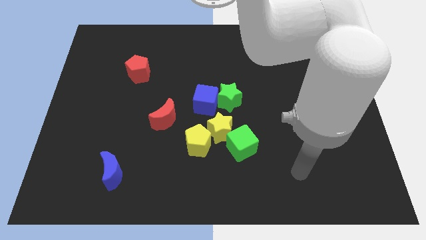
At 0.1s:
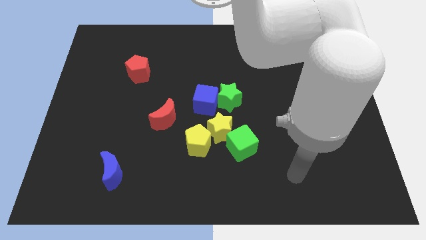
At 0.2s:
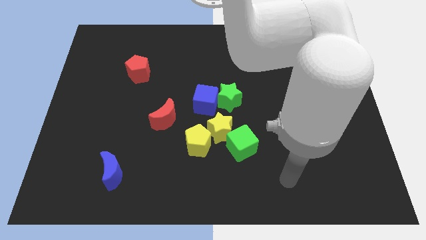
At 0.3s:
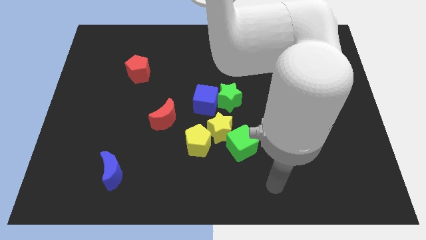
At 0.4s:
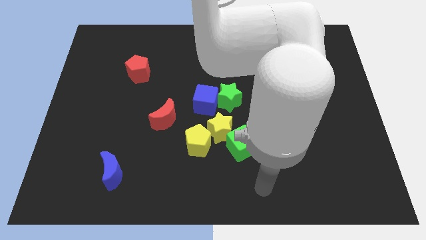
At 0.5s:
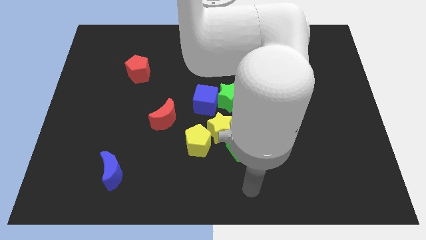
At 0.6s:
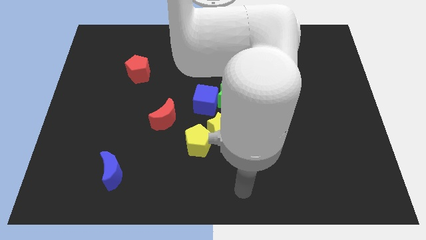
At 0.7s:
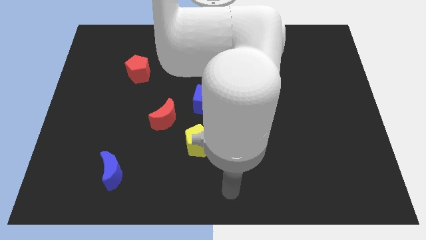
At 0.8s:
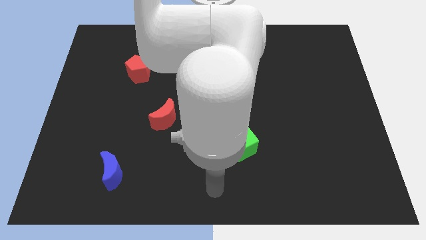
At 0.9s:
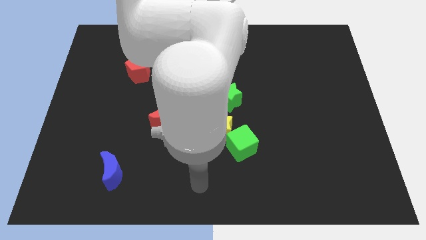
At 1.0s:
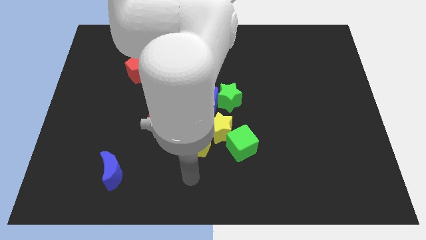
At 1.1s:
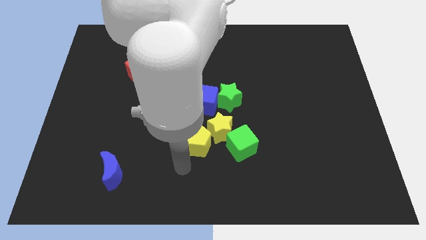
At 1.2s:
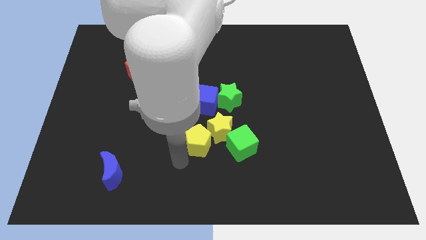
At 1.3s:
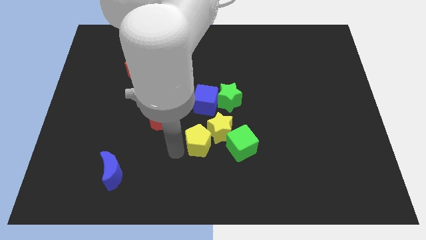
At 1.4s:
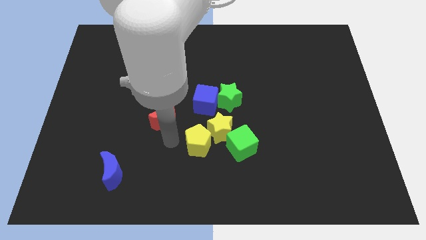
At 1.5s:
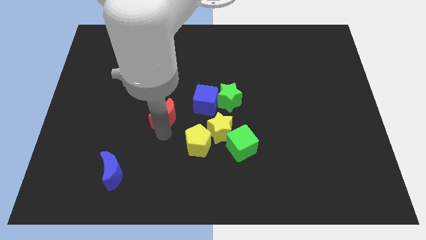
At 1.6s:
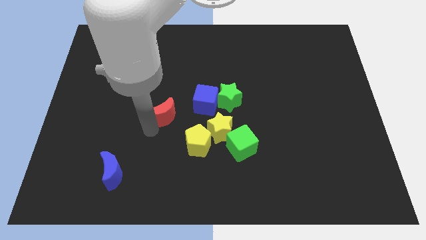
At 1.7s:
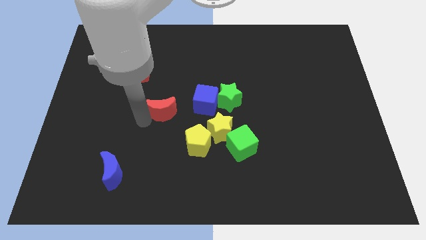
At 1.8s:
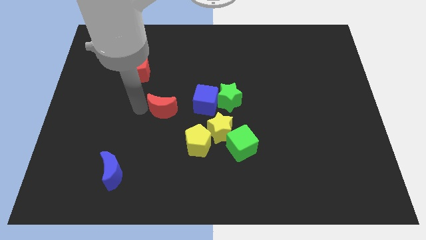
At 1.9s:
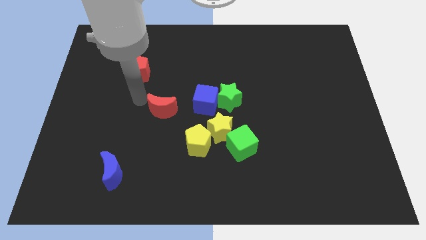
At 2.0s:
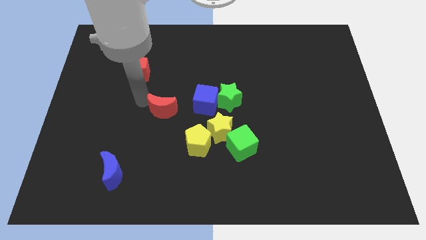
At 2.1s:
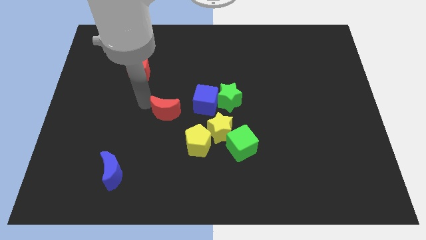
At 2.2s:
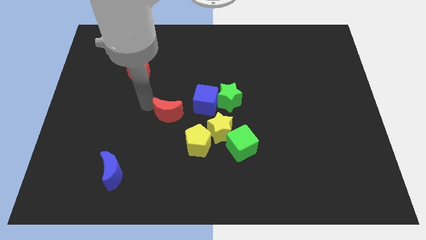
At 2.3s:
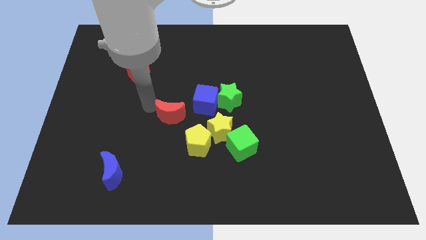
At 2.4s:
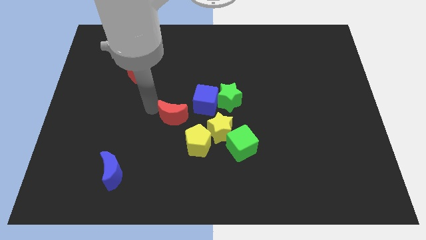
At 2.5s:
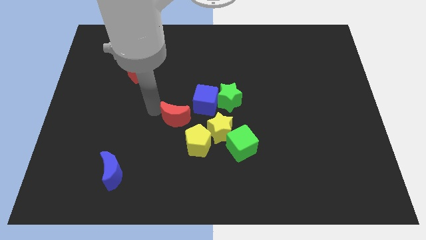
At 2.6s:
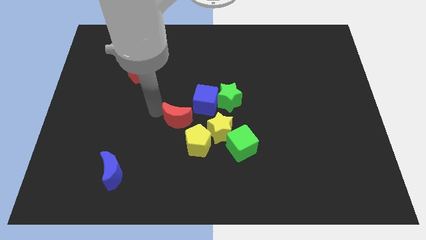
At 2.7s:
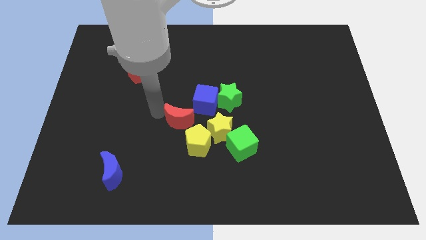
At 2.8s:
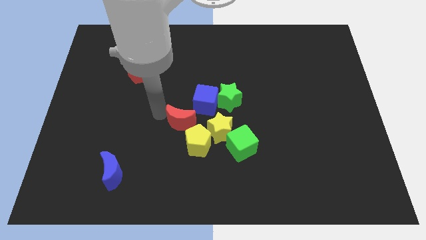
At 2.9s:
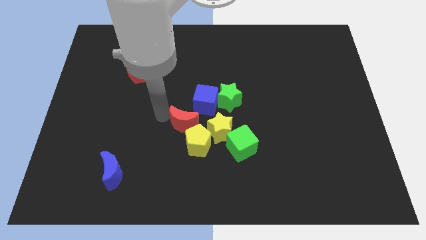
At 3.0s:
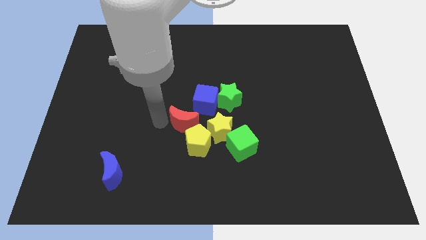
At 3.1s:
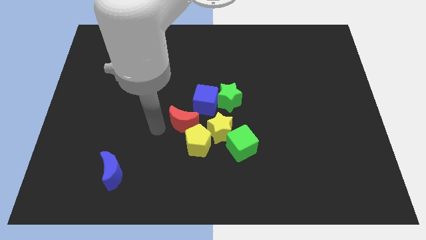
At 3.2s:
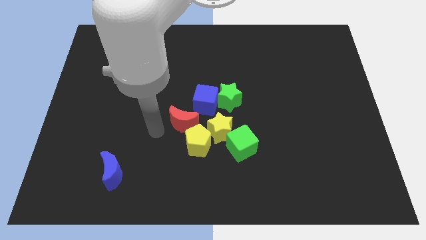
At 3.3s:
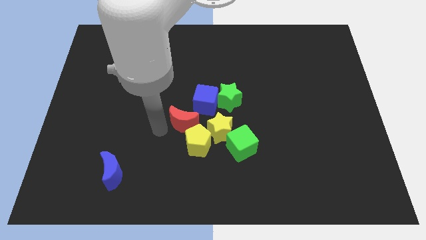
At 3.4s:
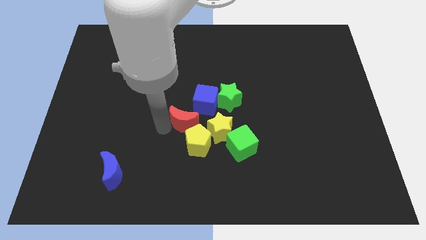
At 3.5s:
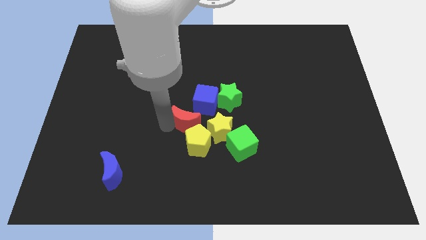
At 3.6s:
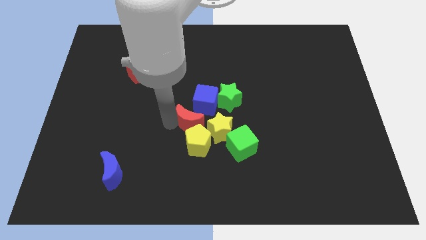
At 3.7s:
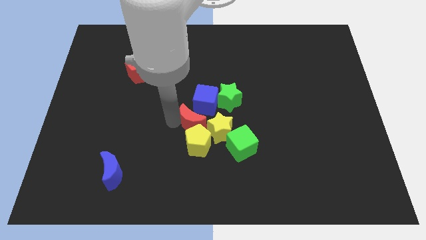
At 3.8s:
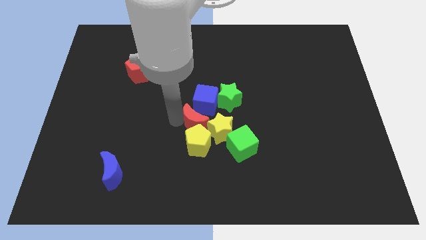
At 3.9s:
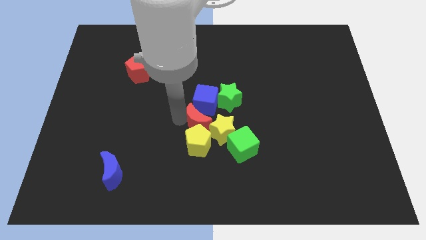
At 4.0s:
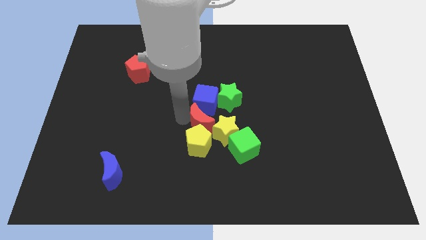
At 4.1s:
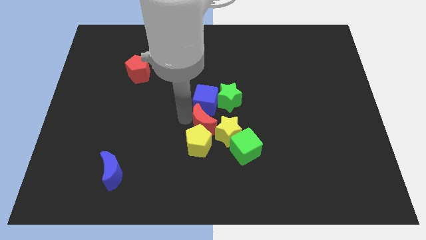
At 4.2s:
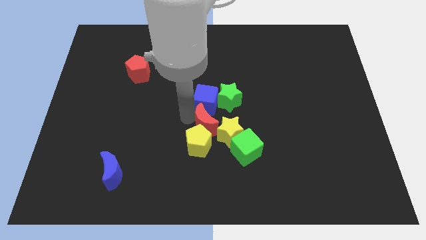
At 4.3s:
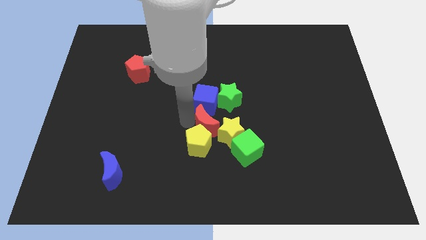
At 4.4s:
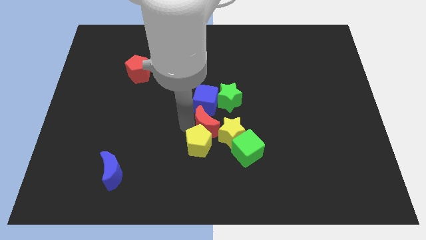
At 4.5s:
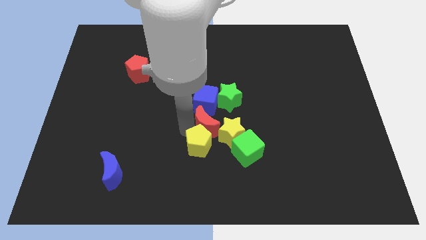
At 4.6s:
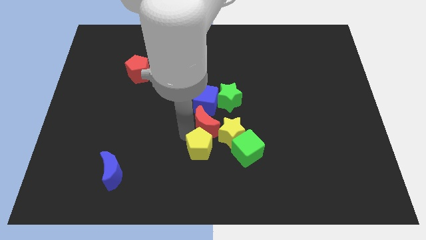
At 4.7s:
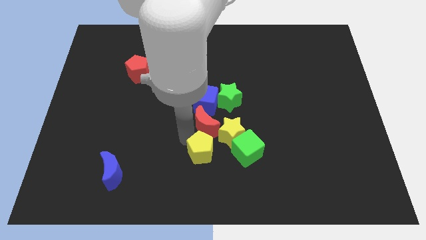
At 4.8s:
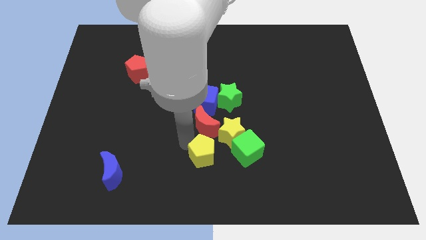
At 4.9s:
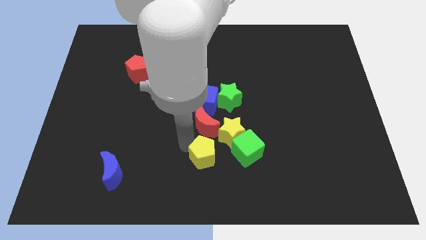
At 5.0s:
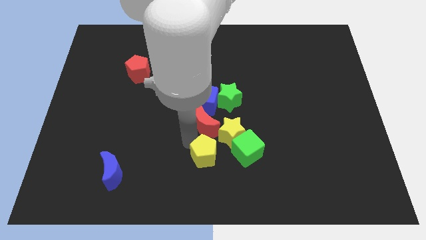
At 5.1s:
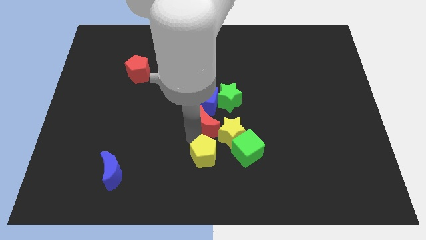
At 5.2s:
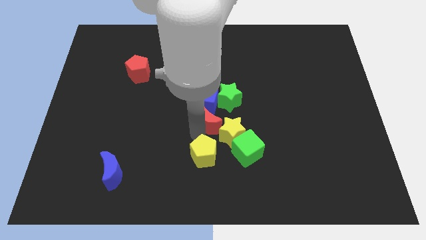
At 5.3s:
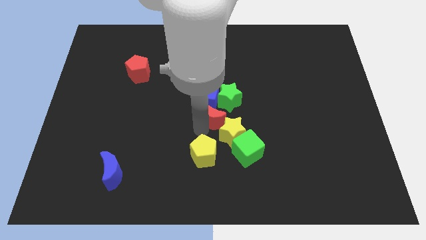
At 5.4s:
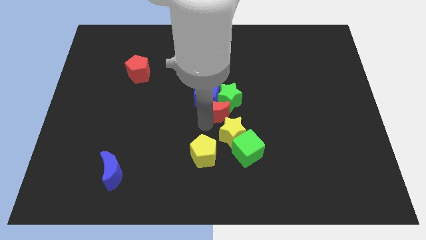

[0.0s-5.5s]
slide the red moon to the green star
